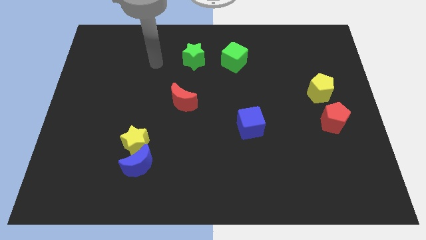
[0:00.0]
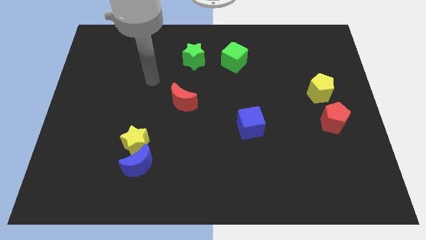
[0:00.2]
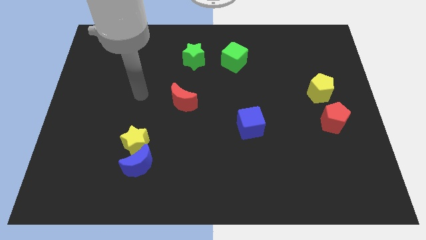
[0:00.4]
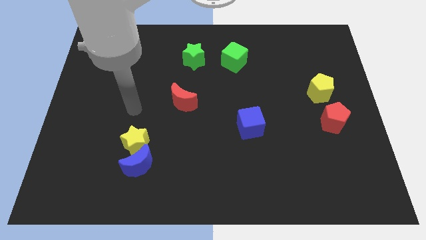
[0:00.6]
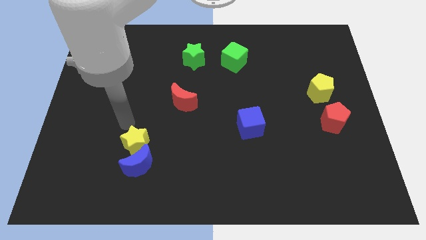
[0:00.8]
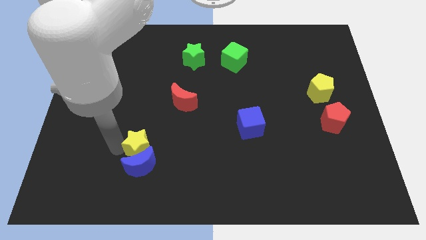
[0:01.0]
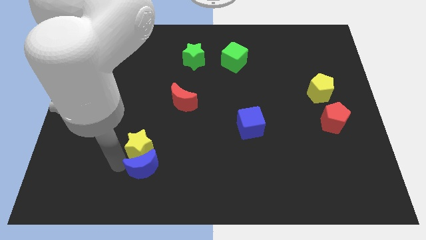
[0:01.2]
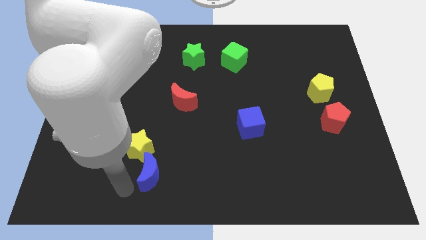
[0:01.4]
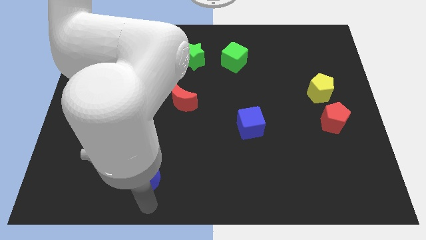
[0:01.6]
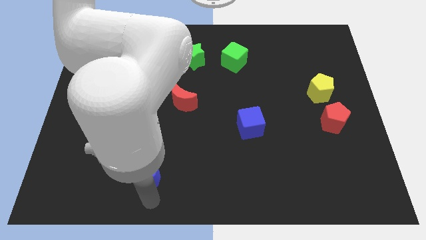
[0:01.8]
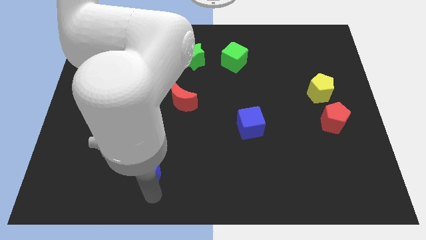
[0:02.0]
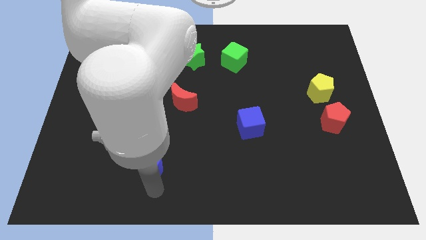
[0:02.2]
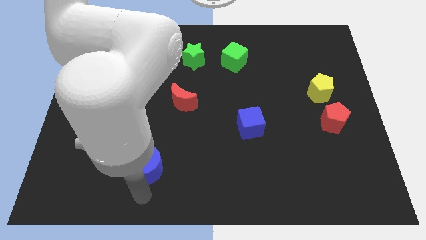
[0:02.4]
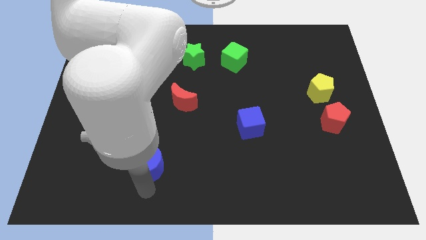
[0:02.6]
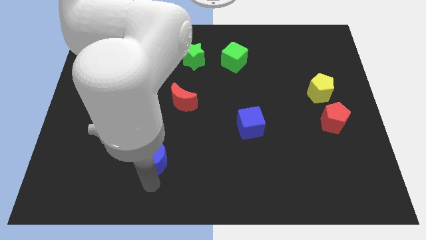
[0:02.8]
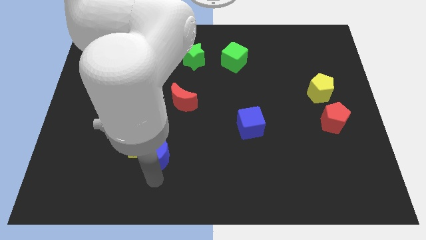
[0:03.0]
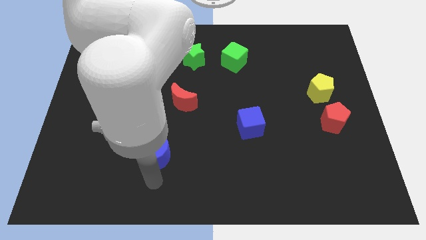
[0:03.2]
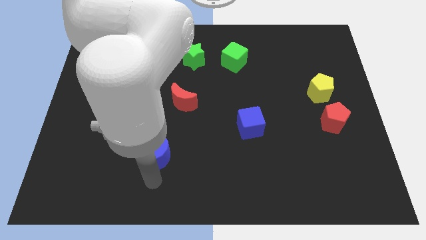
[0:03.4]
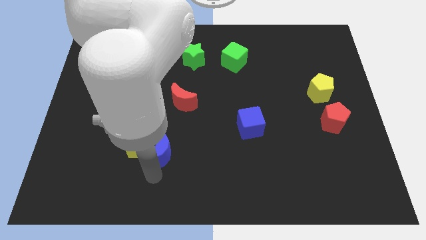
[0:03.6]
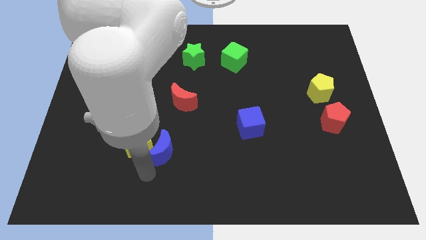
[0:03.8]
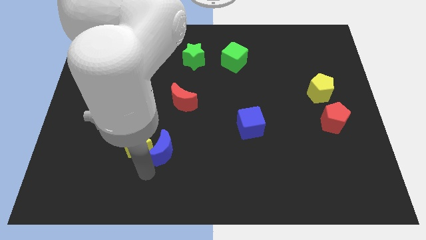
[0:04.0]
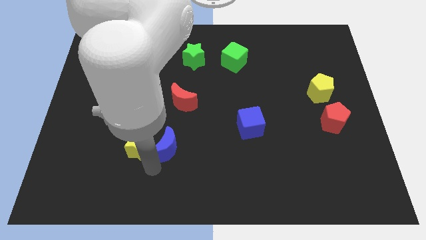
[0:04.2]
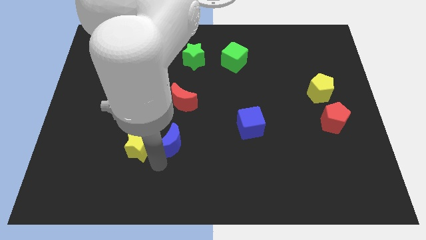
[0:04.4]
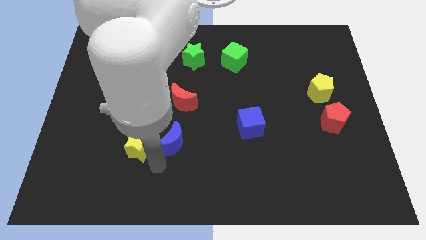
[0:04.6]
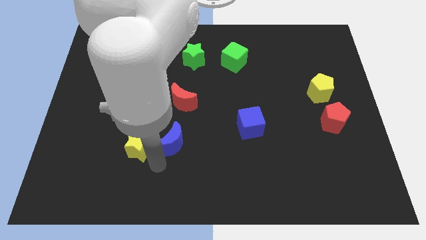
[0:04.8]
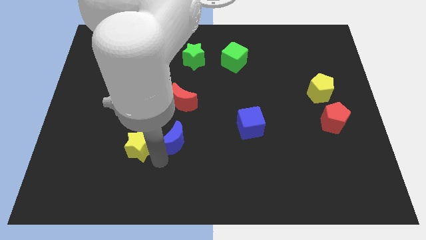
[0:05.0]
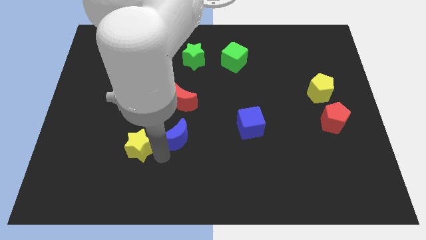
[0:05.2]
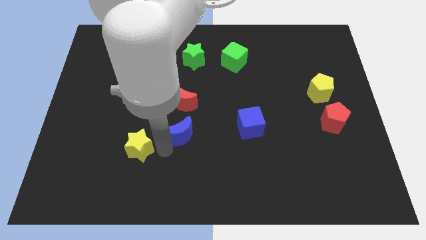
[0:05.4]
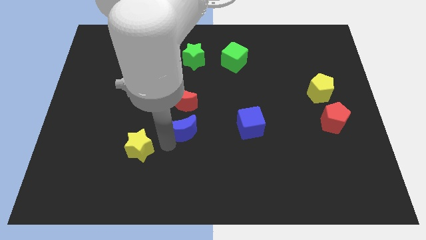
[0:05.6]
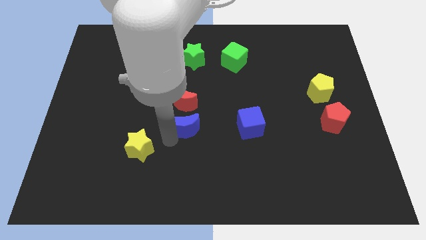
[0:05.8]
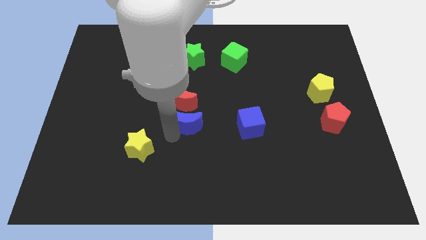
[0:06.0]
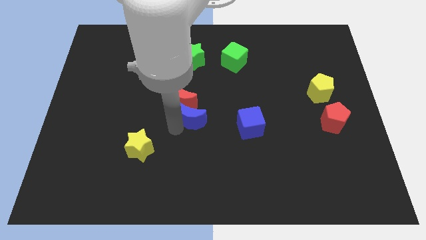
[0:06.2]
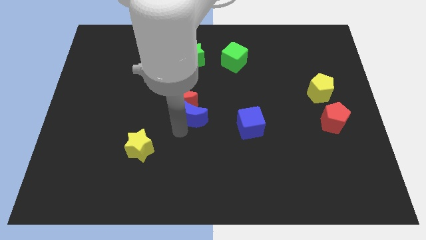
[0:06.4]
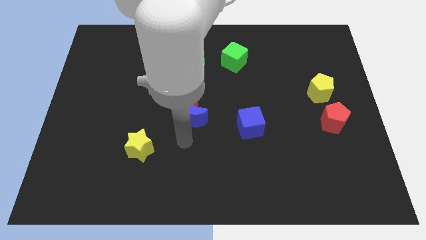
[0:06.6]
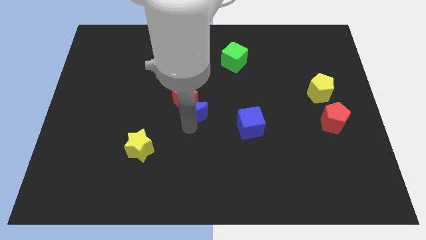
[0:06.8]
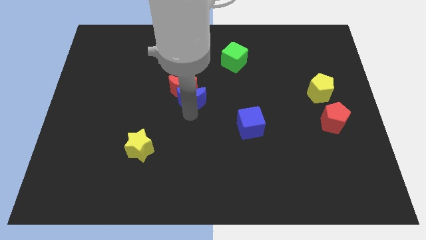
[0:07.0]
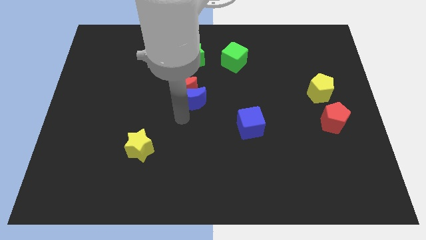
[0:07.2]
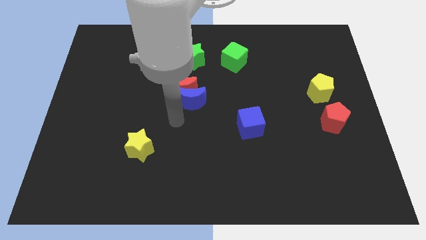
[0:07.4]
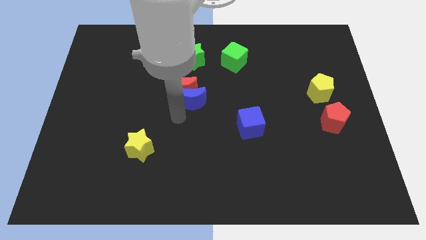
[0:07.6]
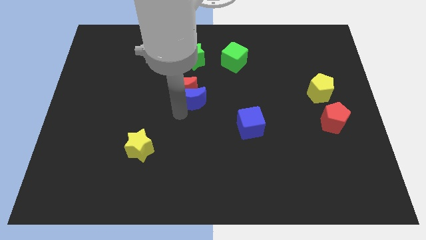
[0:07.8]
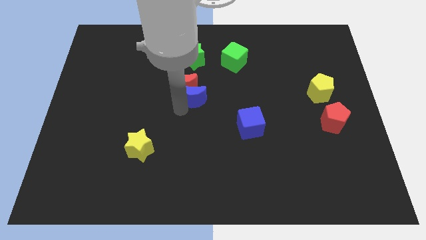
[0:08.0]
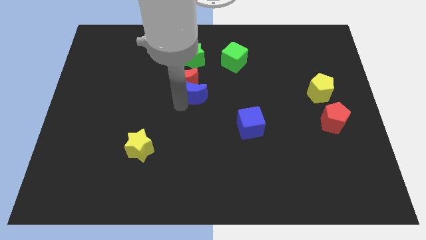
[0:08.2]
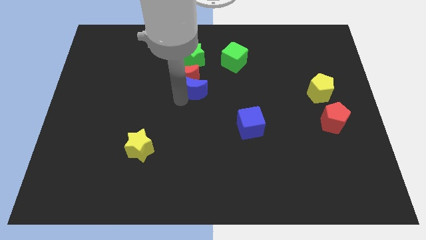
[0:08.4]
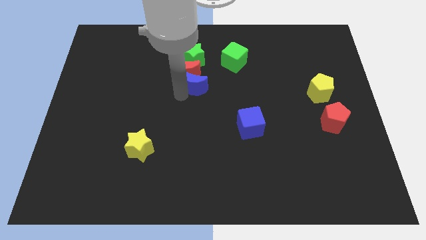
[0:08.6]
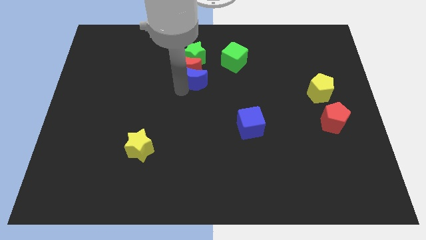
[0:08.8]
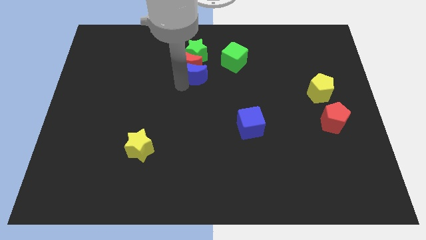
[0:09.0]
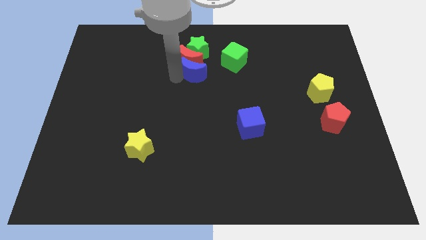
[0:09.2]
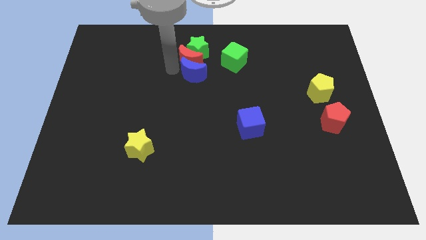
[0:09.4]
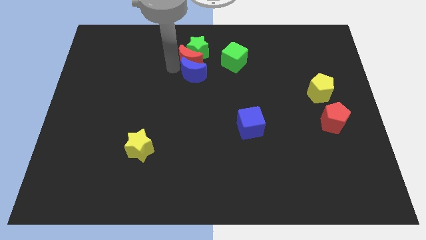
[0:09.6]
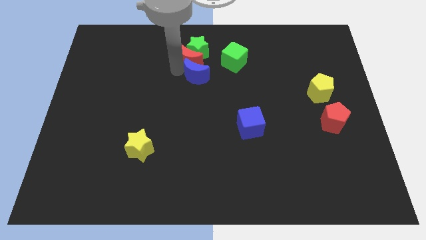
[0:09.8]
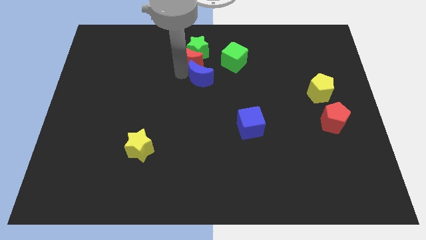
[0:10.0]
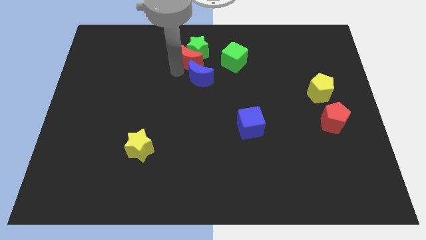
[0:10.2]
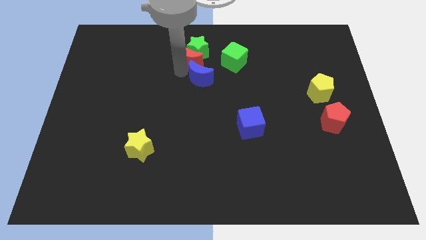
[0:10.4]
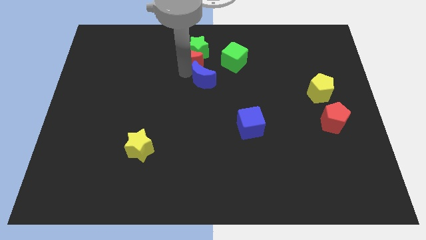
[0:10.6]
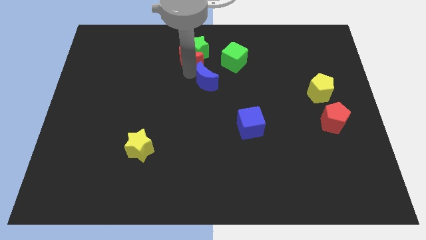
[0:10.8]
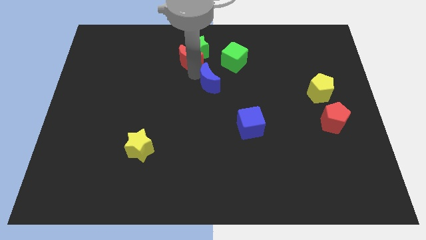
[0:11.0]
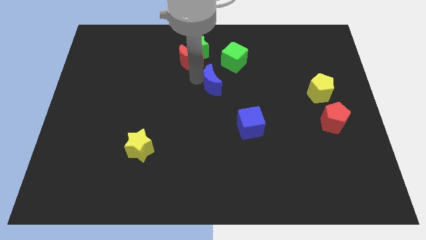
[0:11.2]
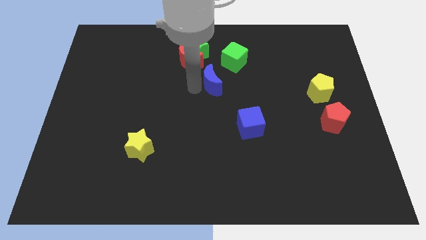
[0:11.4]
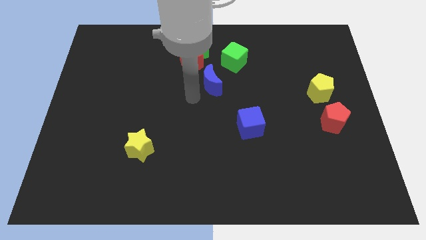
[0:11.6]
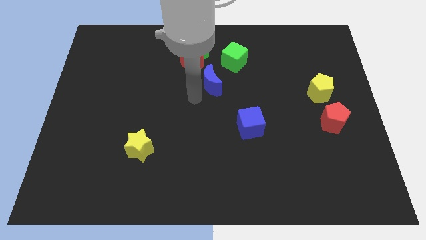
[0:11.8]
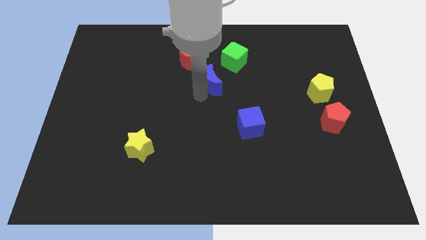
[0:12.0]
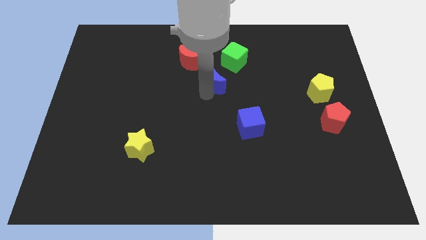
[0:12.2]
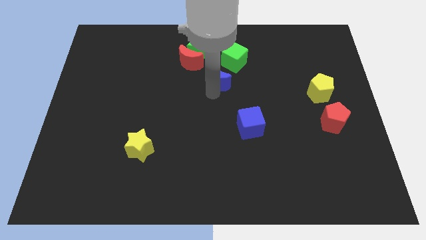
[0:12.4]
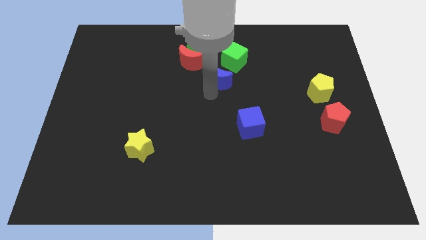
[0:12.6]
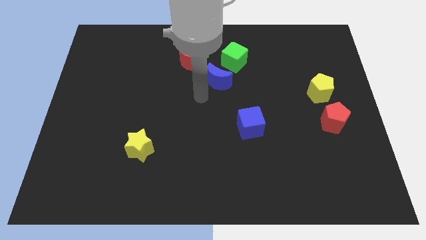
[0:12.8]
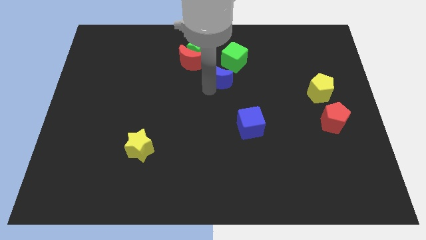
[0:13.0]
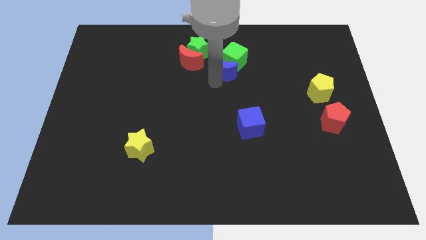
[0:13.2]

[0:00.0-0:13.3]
put the blue moon towards the green cube
